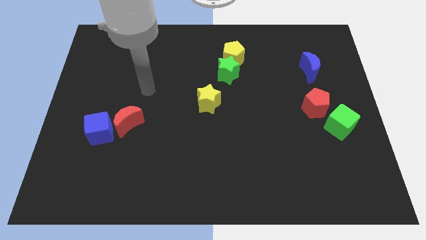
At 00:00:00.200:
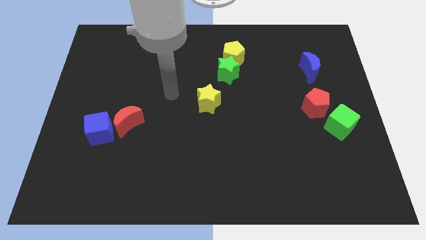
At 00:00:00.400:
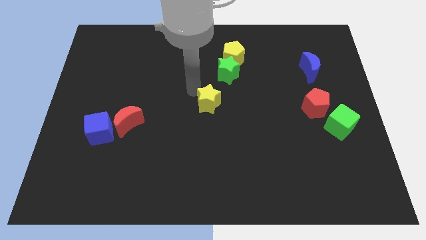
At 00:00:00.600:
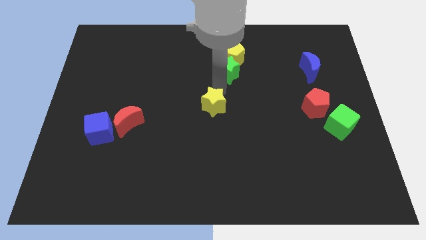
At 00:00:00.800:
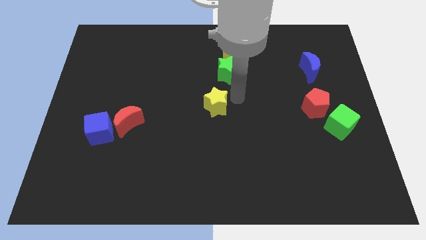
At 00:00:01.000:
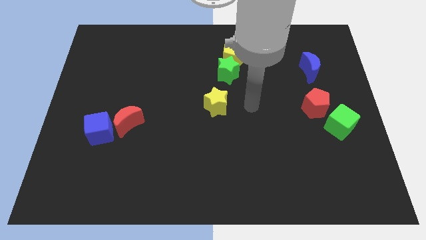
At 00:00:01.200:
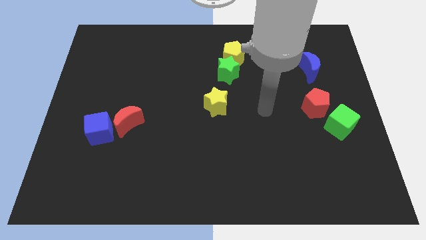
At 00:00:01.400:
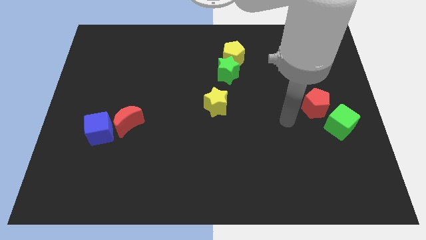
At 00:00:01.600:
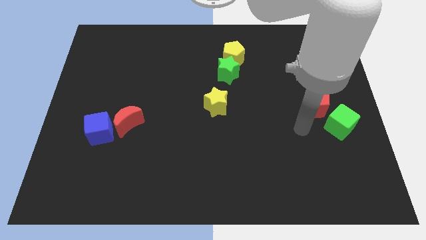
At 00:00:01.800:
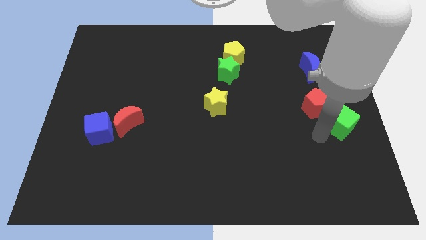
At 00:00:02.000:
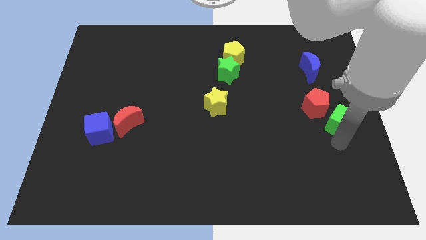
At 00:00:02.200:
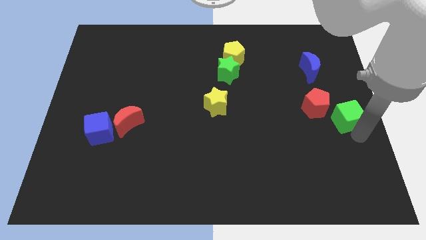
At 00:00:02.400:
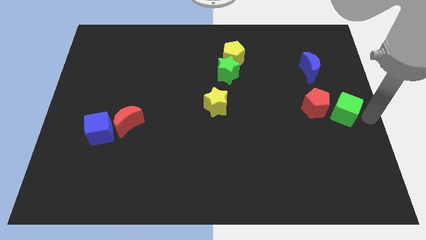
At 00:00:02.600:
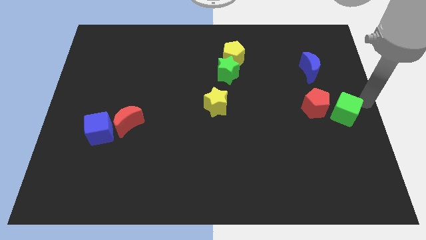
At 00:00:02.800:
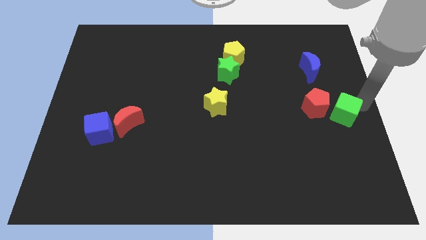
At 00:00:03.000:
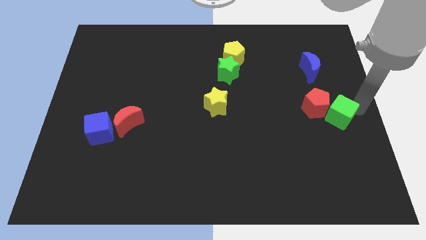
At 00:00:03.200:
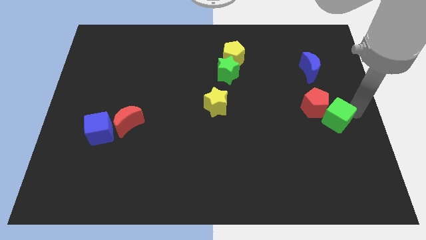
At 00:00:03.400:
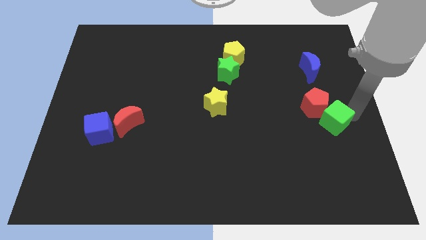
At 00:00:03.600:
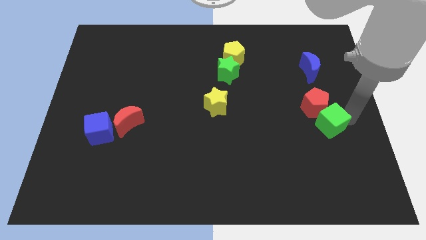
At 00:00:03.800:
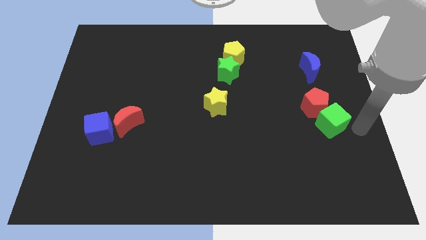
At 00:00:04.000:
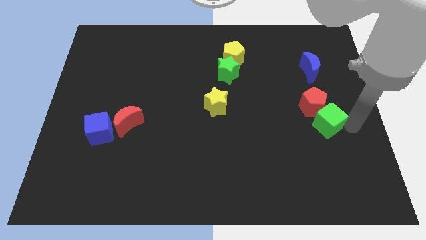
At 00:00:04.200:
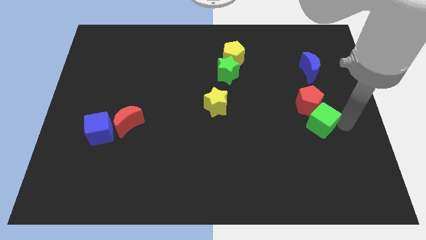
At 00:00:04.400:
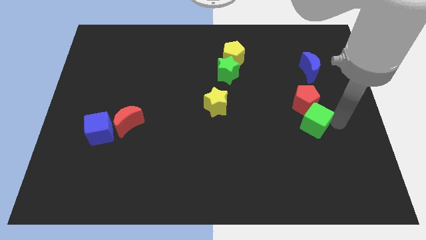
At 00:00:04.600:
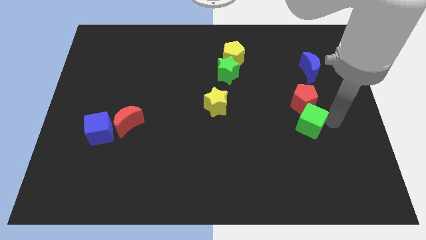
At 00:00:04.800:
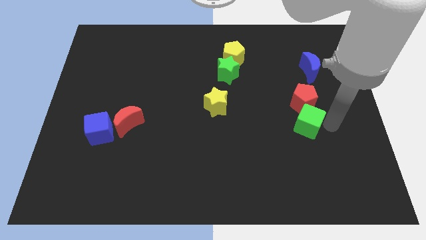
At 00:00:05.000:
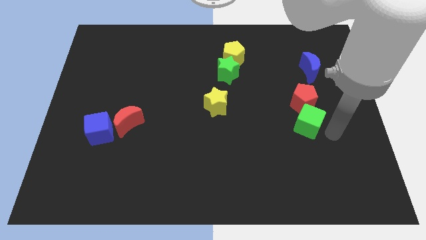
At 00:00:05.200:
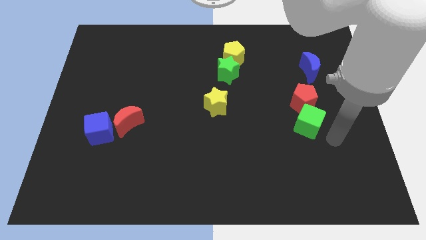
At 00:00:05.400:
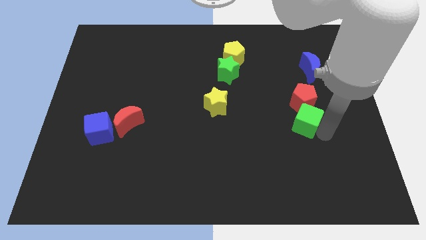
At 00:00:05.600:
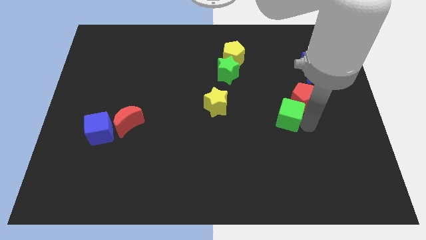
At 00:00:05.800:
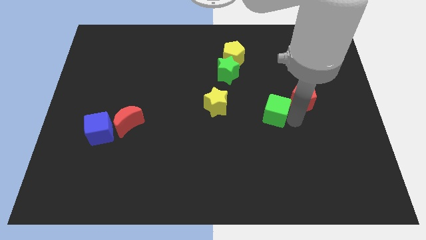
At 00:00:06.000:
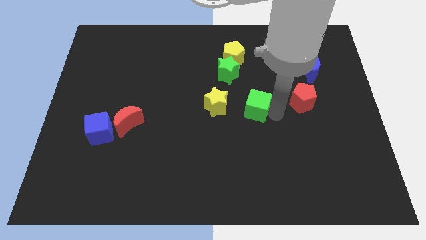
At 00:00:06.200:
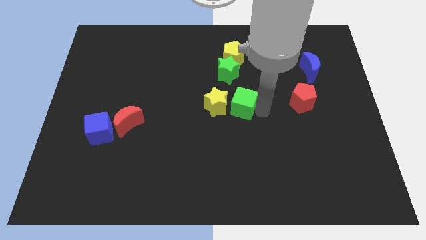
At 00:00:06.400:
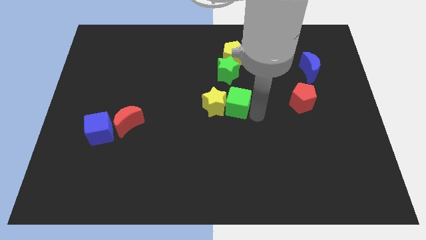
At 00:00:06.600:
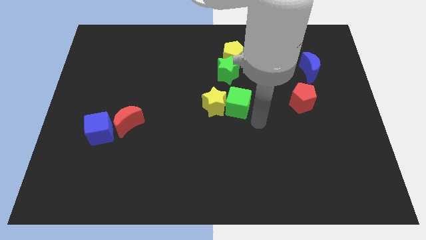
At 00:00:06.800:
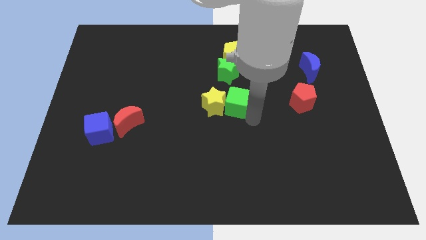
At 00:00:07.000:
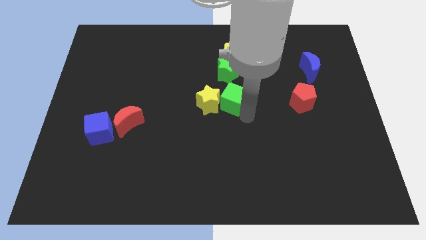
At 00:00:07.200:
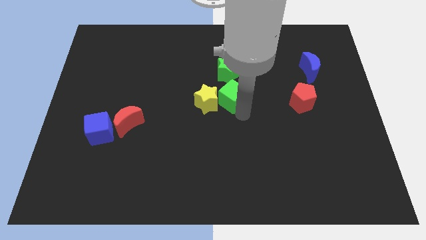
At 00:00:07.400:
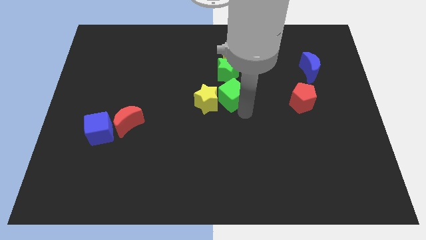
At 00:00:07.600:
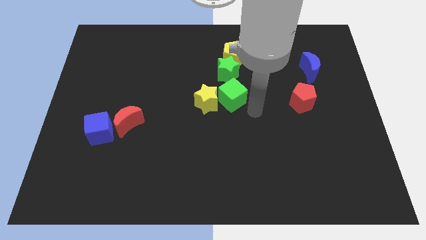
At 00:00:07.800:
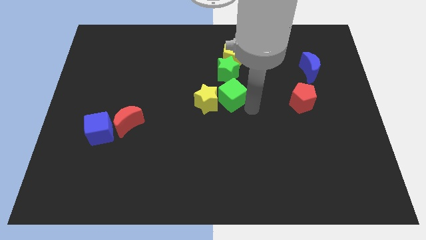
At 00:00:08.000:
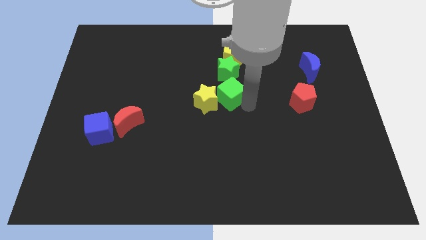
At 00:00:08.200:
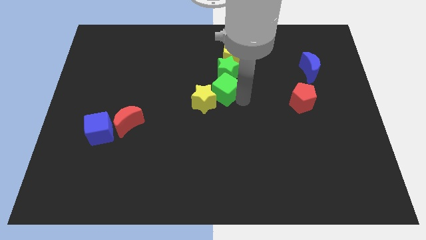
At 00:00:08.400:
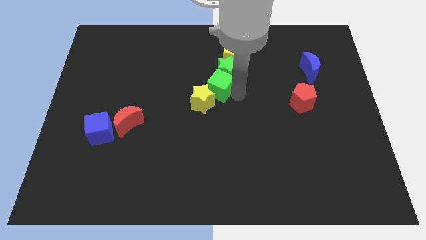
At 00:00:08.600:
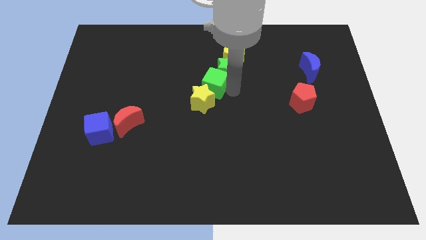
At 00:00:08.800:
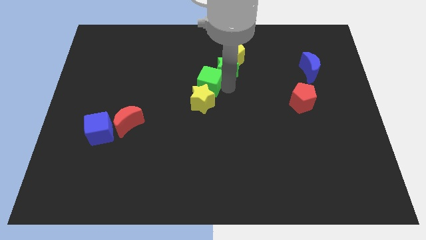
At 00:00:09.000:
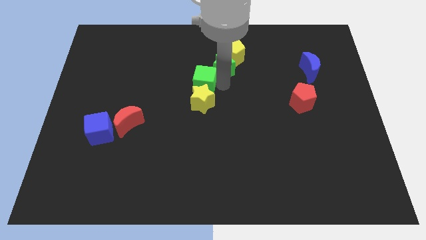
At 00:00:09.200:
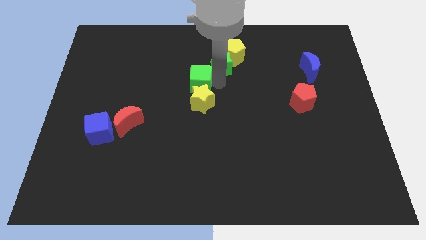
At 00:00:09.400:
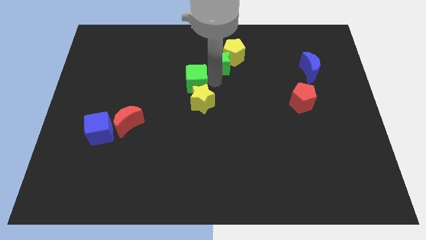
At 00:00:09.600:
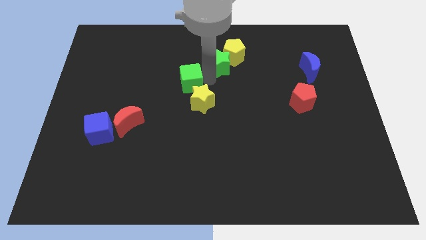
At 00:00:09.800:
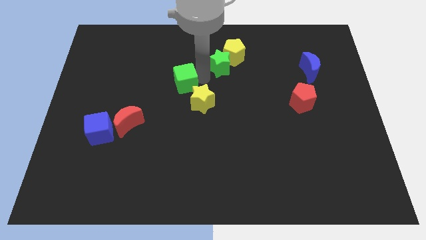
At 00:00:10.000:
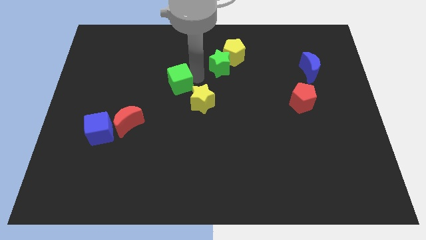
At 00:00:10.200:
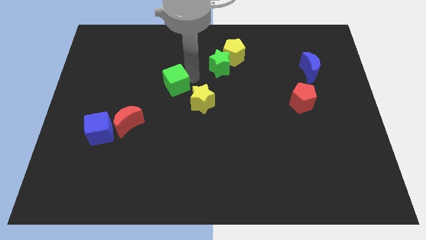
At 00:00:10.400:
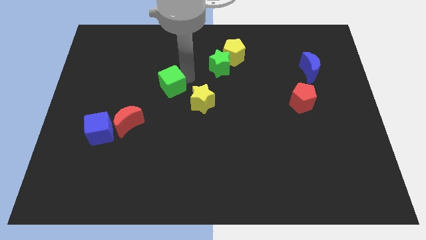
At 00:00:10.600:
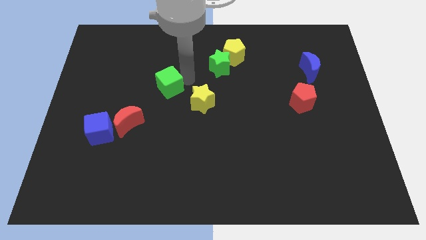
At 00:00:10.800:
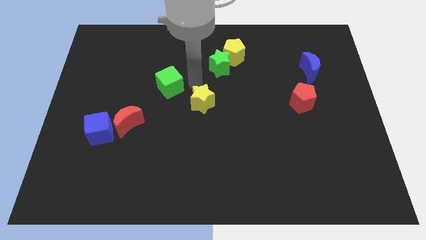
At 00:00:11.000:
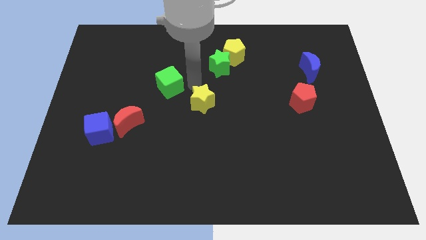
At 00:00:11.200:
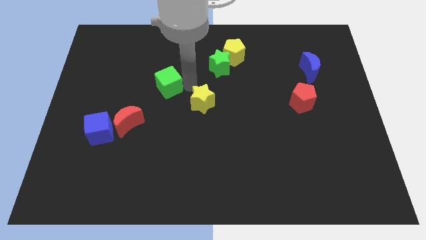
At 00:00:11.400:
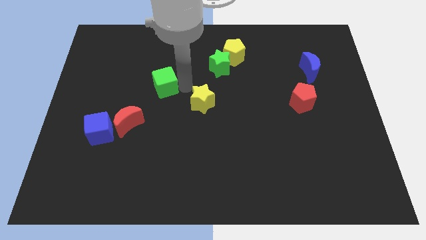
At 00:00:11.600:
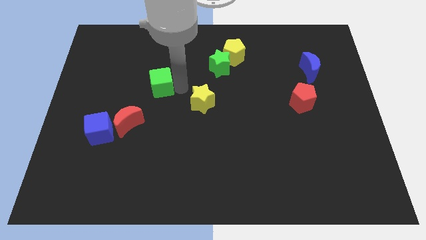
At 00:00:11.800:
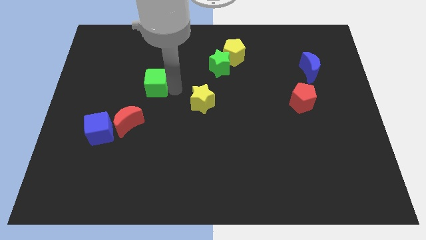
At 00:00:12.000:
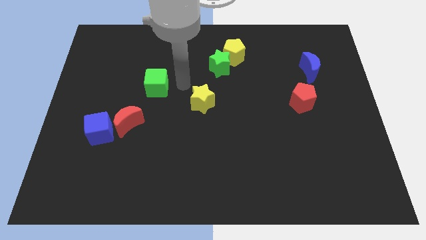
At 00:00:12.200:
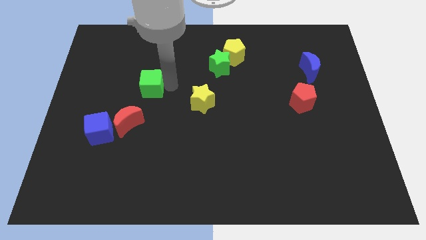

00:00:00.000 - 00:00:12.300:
move the green cube above the red moon

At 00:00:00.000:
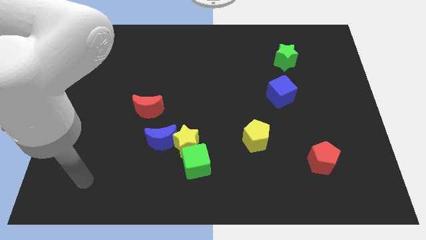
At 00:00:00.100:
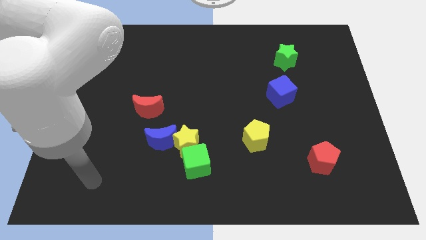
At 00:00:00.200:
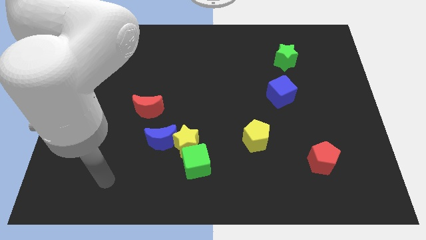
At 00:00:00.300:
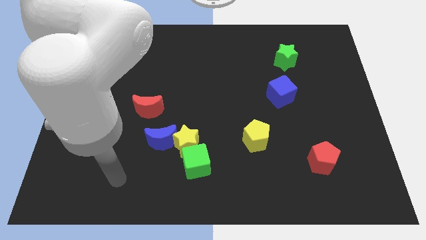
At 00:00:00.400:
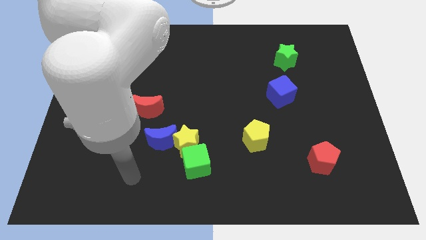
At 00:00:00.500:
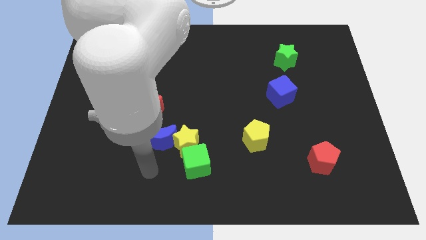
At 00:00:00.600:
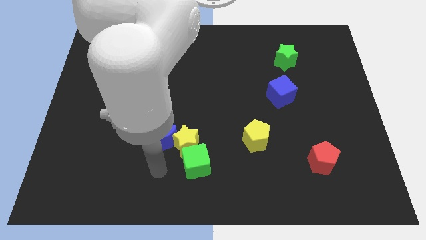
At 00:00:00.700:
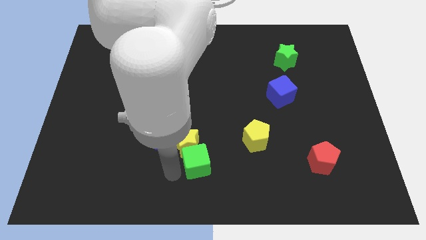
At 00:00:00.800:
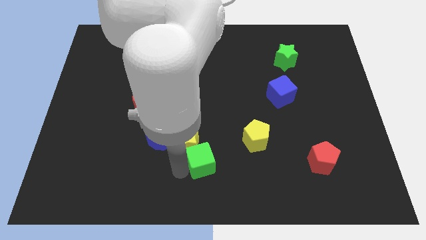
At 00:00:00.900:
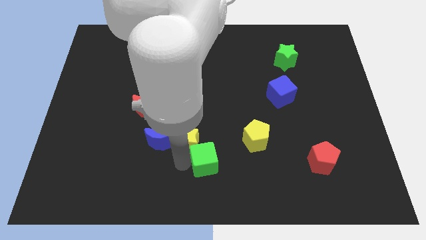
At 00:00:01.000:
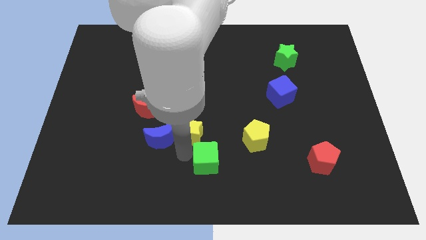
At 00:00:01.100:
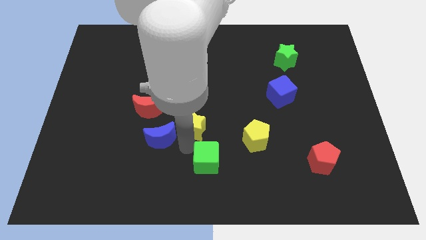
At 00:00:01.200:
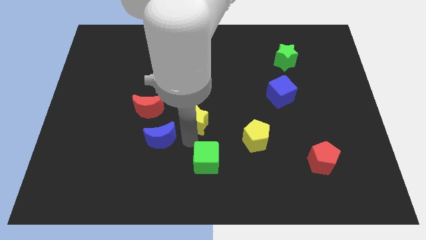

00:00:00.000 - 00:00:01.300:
move the yellow star right of the red moon
